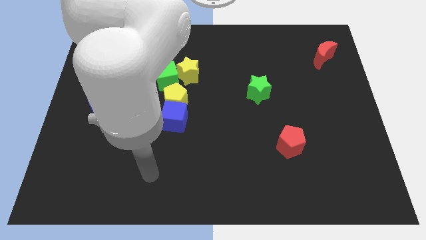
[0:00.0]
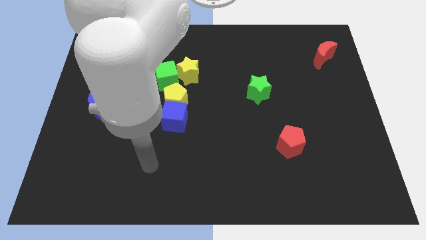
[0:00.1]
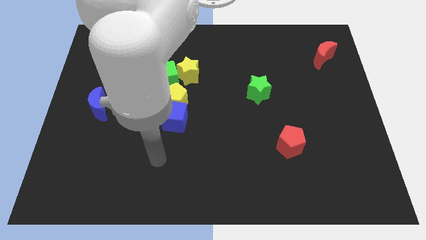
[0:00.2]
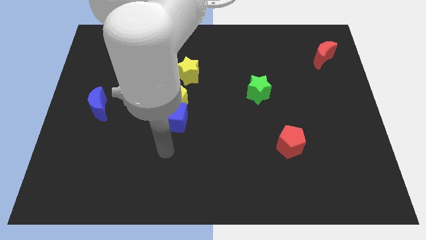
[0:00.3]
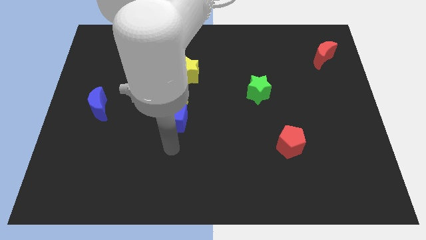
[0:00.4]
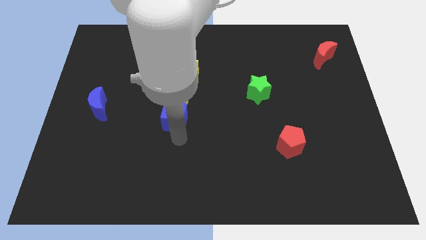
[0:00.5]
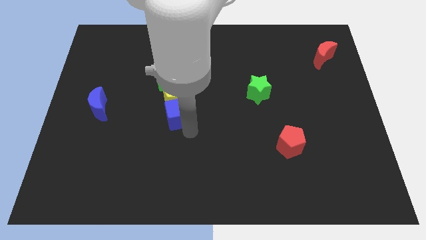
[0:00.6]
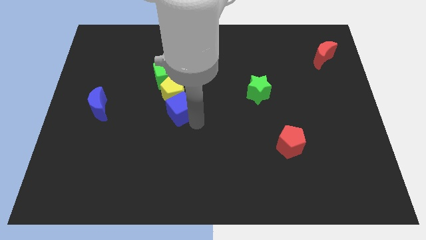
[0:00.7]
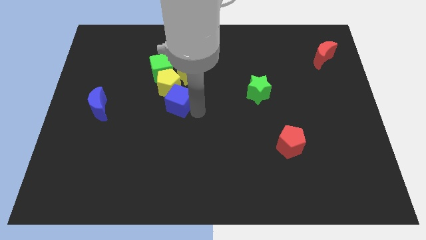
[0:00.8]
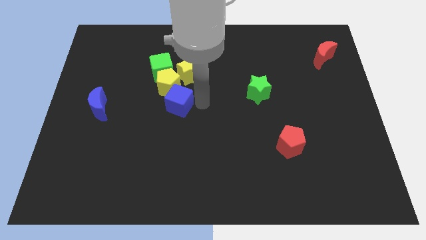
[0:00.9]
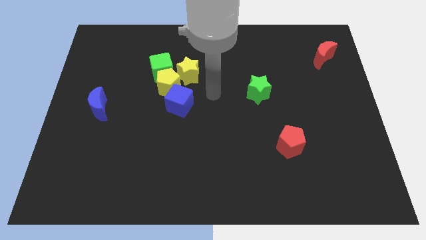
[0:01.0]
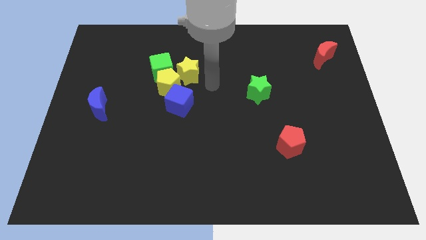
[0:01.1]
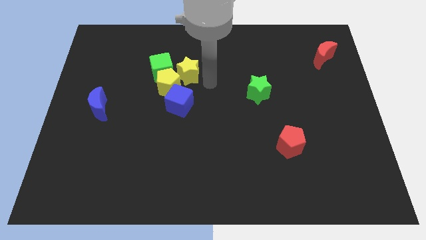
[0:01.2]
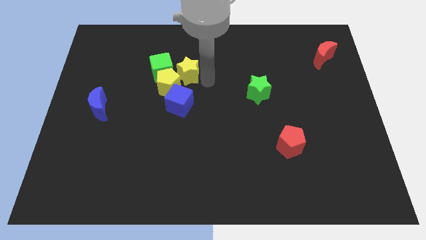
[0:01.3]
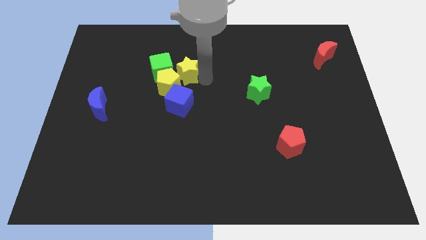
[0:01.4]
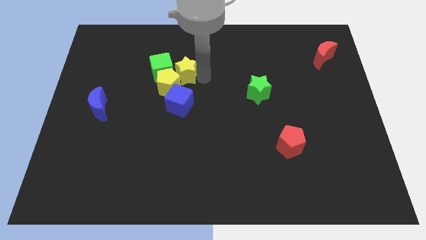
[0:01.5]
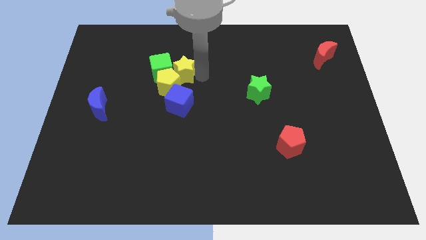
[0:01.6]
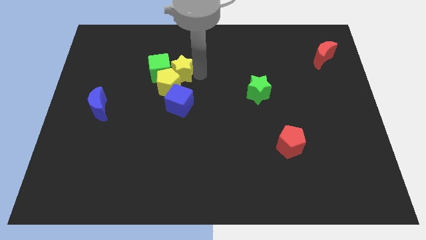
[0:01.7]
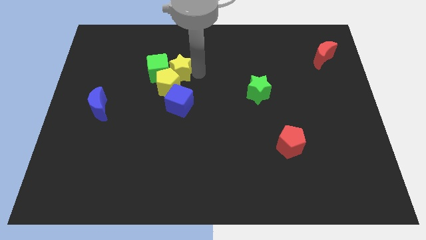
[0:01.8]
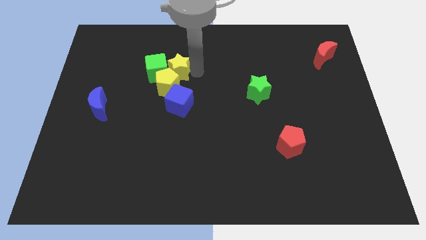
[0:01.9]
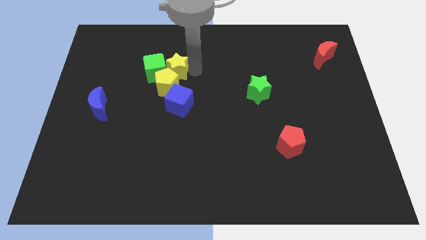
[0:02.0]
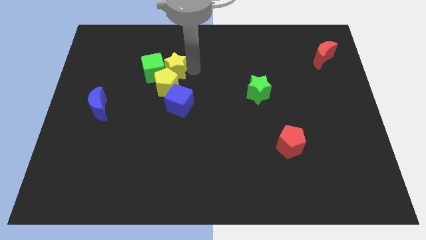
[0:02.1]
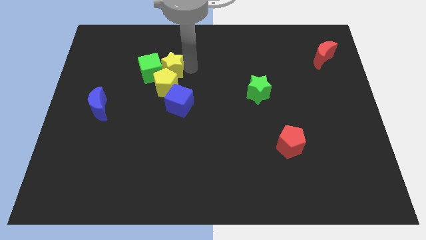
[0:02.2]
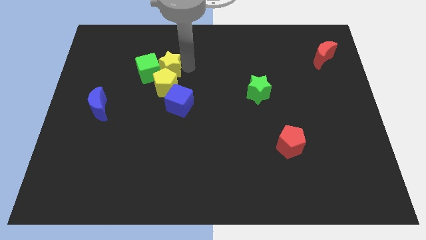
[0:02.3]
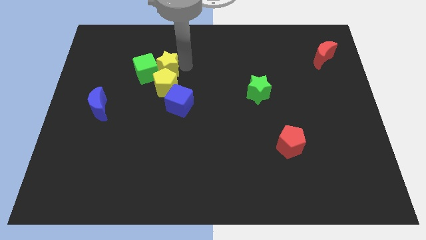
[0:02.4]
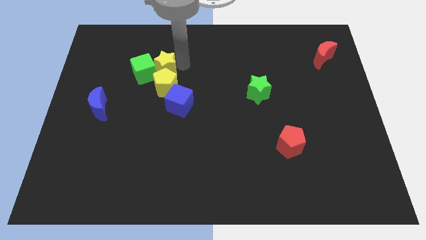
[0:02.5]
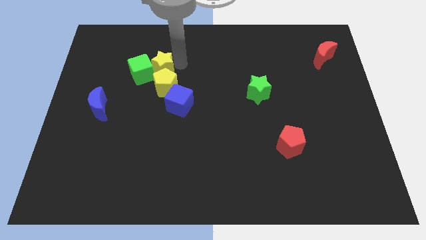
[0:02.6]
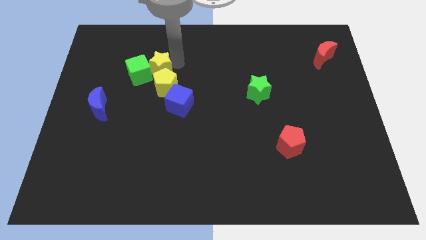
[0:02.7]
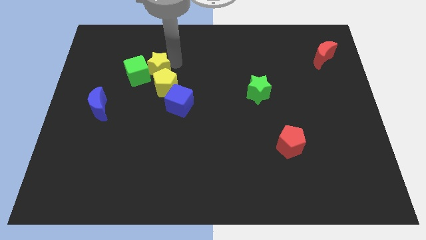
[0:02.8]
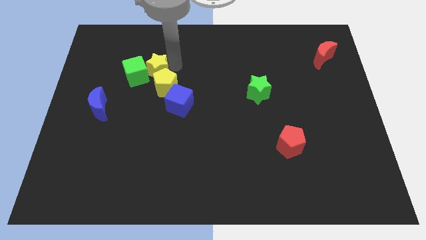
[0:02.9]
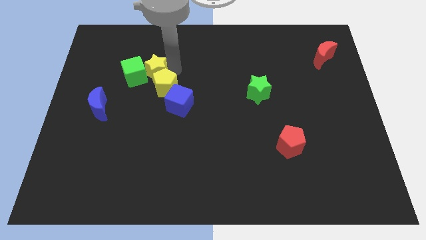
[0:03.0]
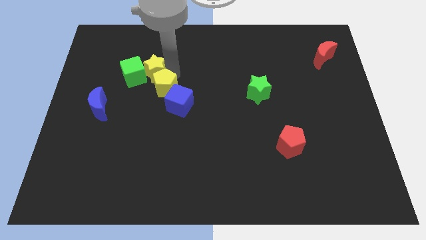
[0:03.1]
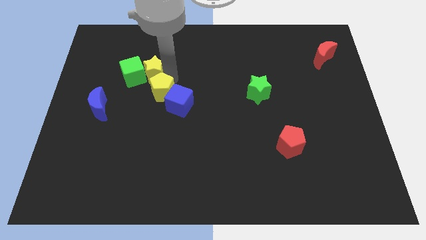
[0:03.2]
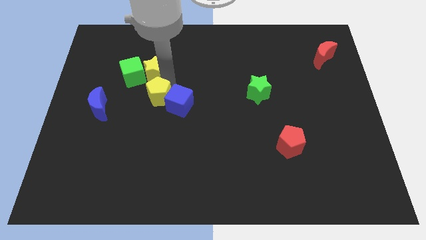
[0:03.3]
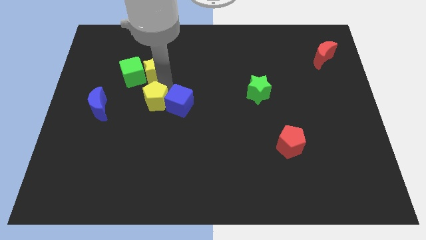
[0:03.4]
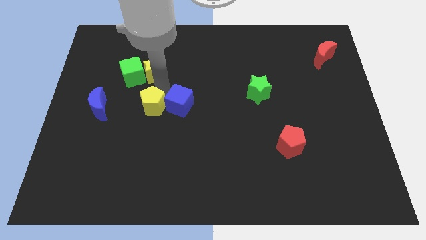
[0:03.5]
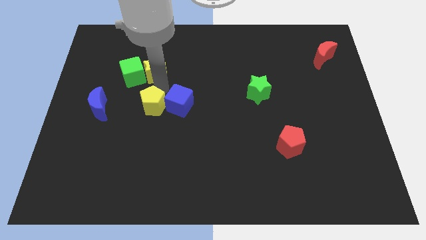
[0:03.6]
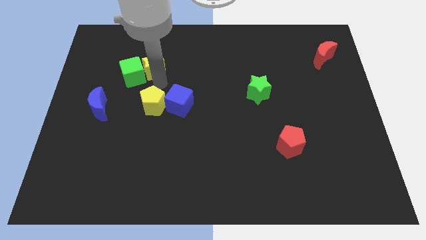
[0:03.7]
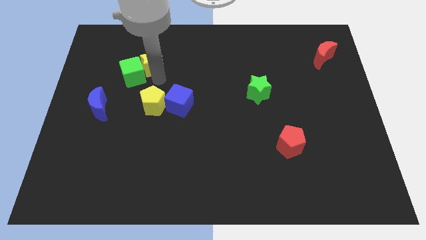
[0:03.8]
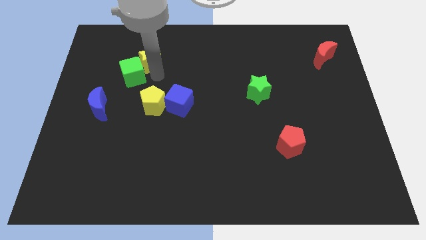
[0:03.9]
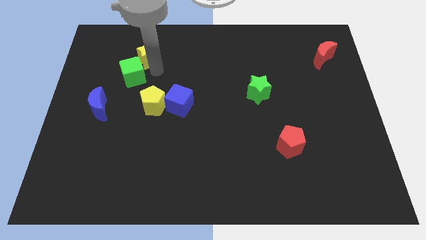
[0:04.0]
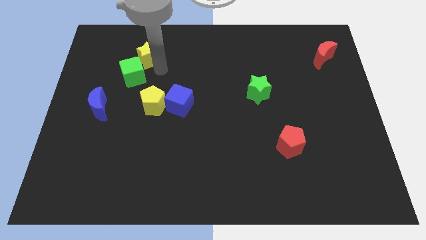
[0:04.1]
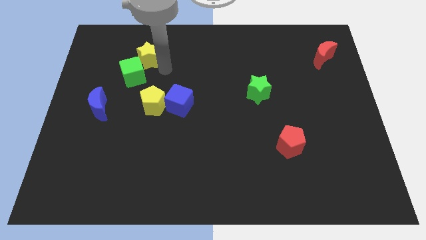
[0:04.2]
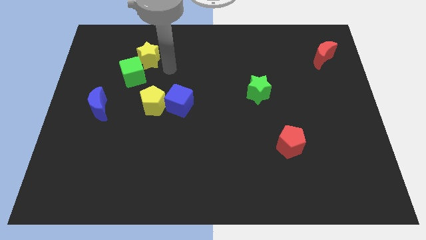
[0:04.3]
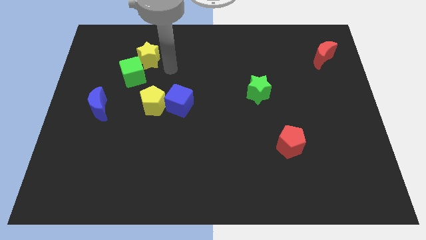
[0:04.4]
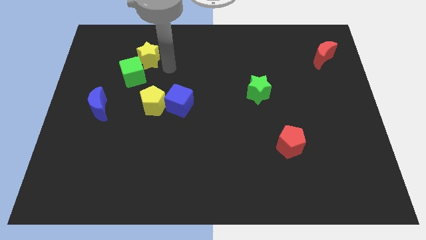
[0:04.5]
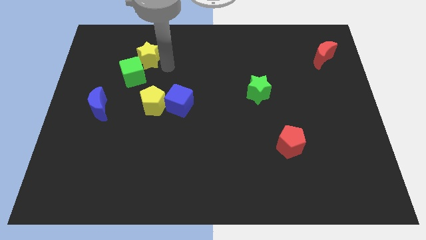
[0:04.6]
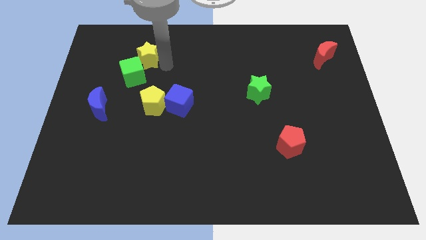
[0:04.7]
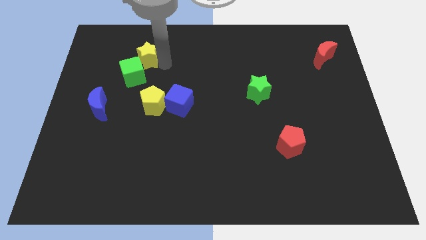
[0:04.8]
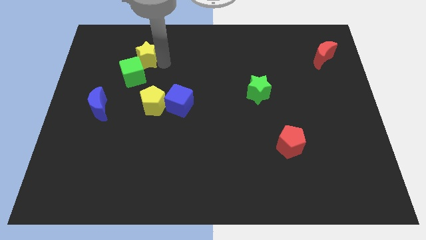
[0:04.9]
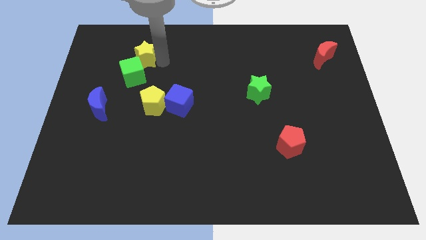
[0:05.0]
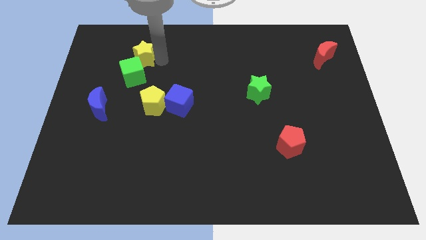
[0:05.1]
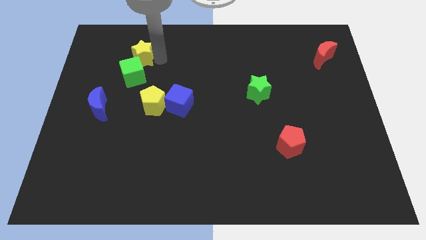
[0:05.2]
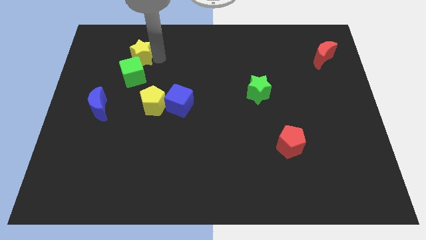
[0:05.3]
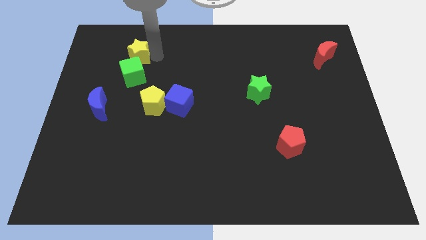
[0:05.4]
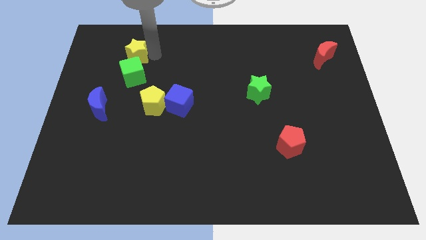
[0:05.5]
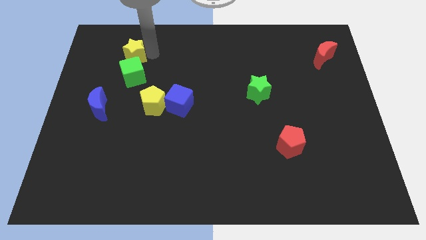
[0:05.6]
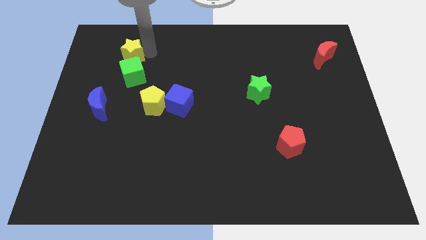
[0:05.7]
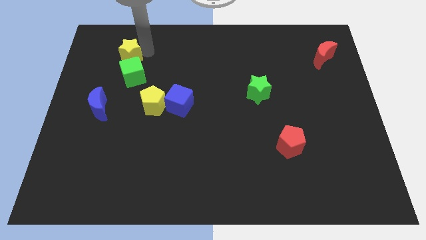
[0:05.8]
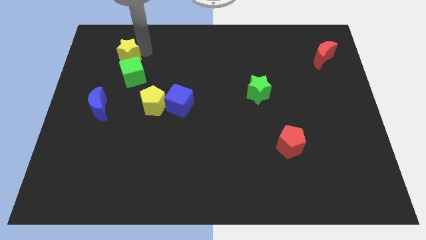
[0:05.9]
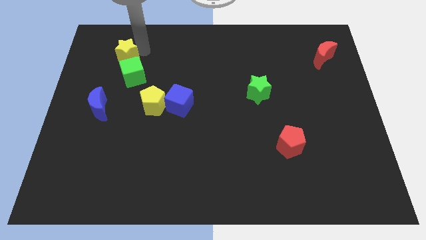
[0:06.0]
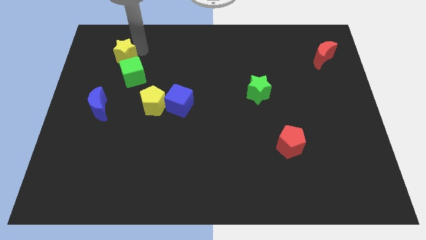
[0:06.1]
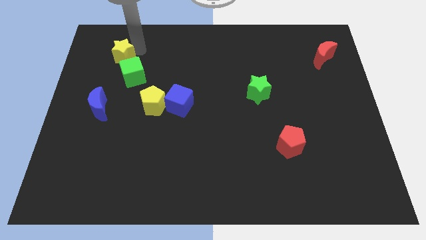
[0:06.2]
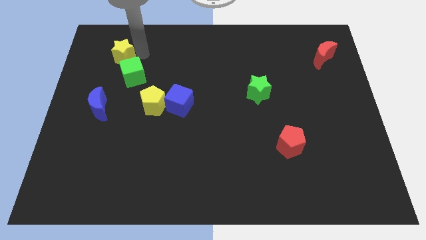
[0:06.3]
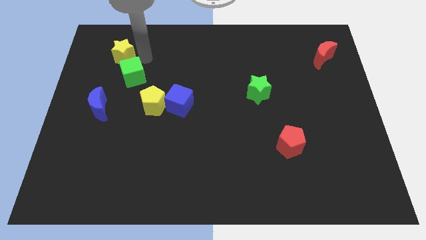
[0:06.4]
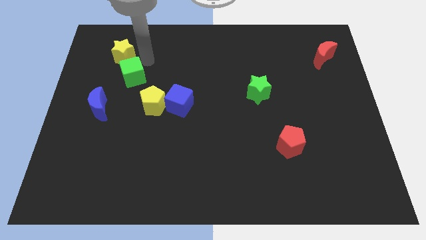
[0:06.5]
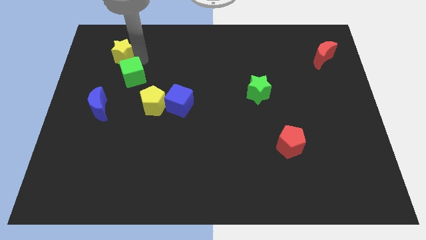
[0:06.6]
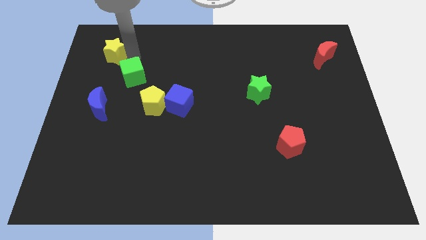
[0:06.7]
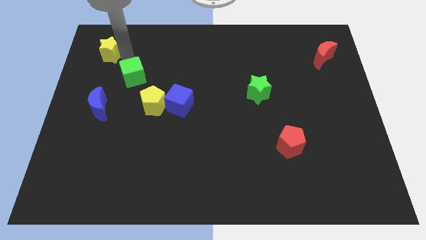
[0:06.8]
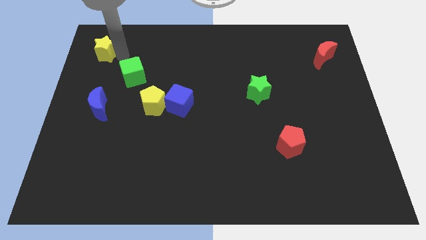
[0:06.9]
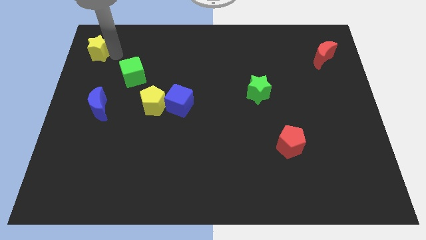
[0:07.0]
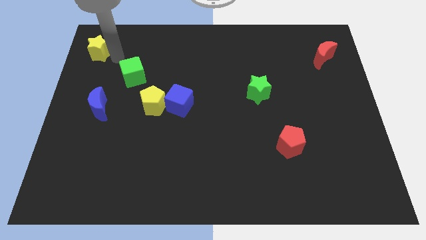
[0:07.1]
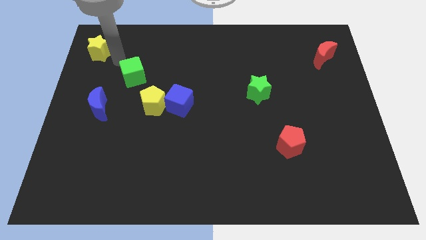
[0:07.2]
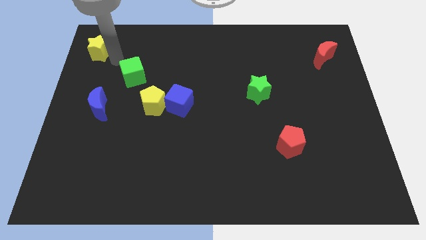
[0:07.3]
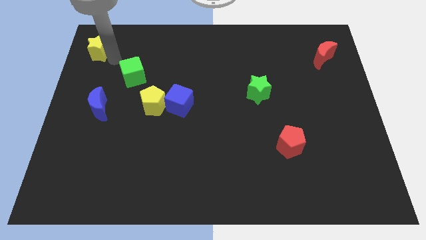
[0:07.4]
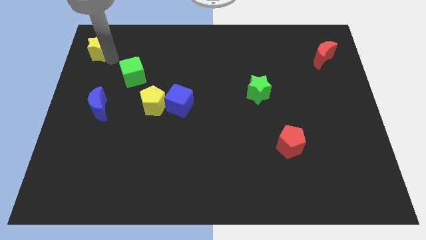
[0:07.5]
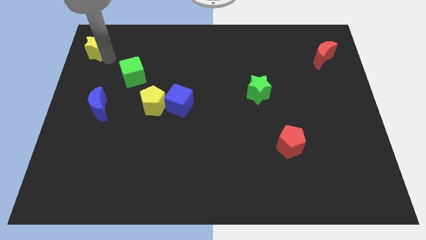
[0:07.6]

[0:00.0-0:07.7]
put the yellow star to the top left corner
